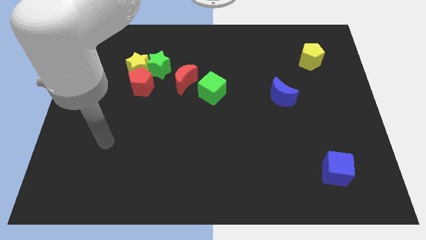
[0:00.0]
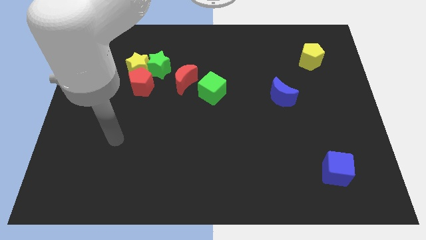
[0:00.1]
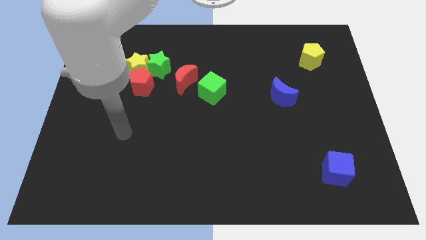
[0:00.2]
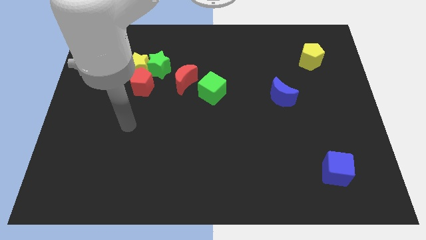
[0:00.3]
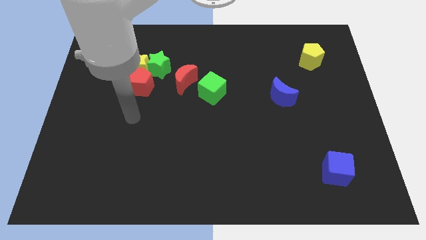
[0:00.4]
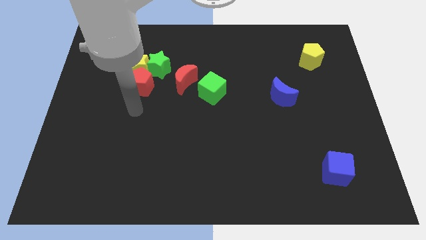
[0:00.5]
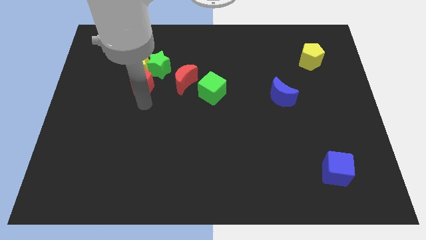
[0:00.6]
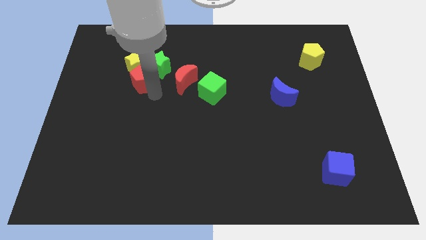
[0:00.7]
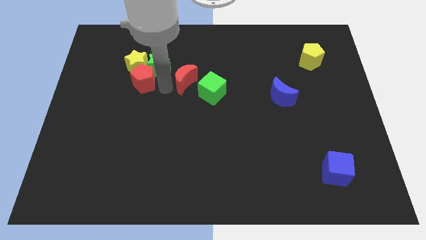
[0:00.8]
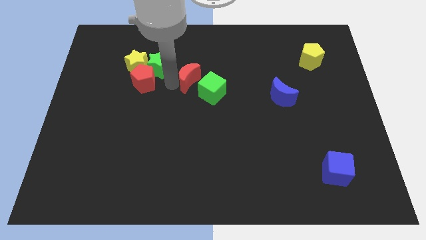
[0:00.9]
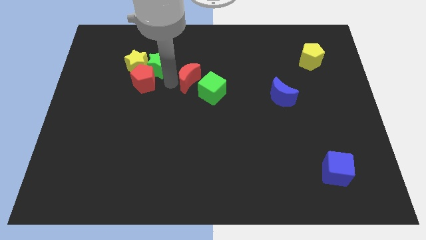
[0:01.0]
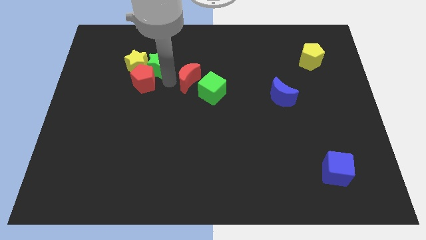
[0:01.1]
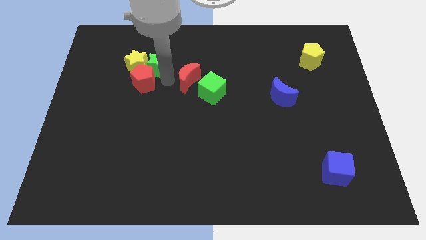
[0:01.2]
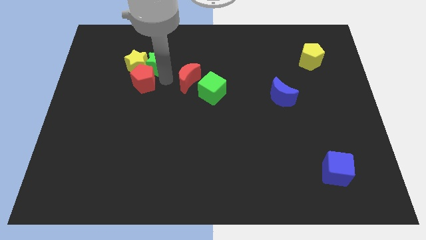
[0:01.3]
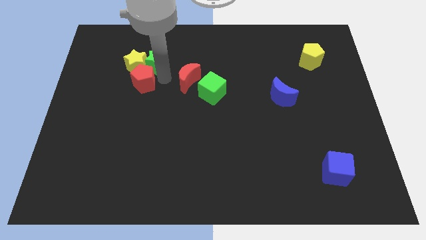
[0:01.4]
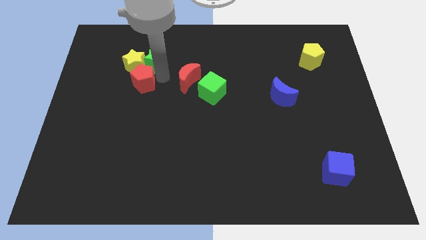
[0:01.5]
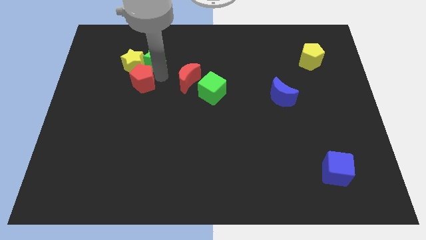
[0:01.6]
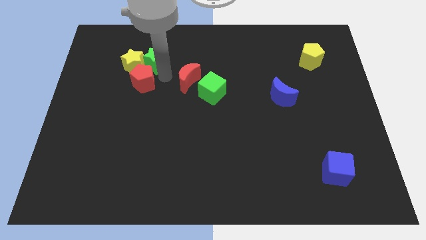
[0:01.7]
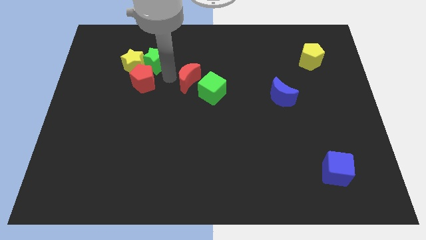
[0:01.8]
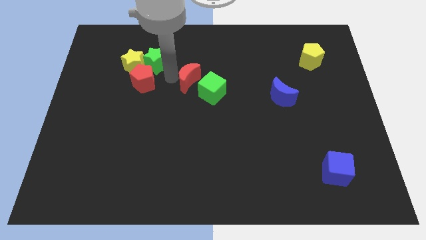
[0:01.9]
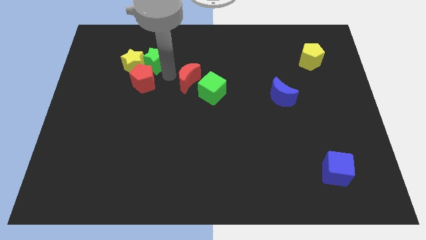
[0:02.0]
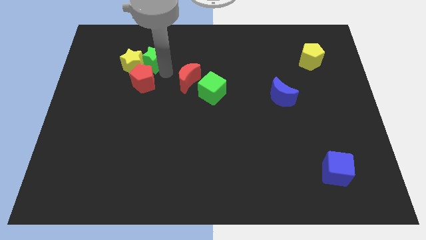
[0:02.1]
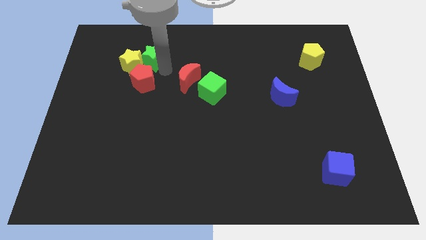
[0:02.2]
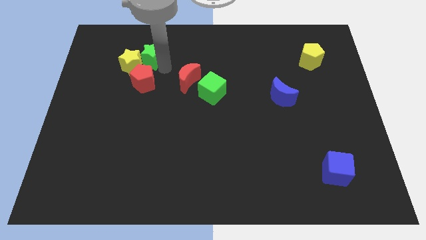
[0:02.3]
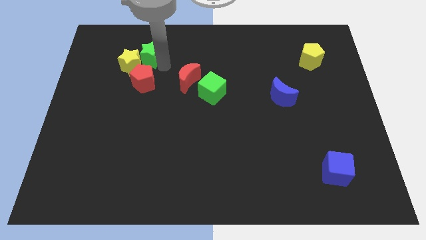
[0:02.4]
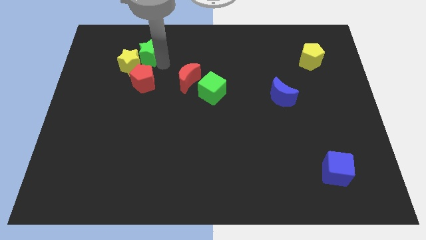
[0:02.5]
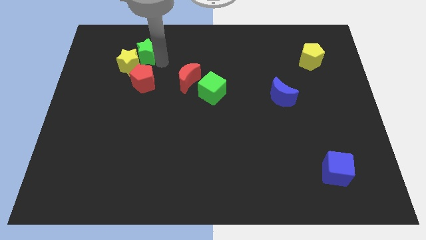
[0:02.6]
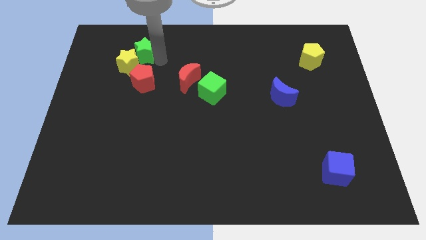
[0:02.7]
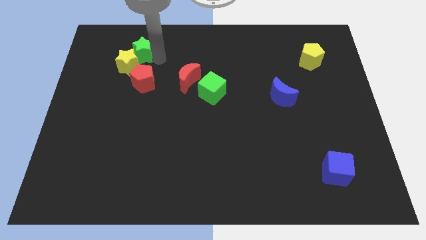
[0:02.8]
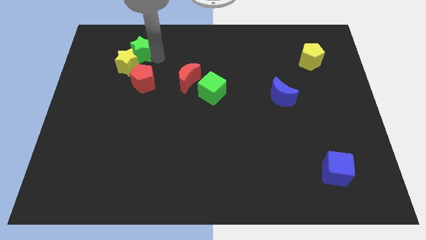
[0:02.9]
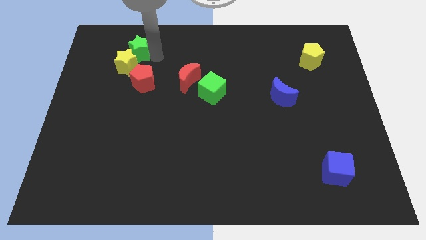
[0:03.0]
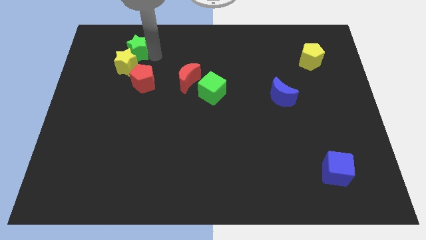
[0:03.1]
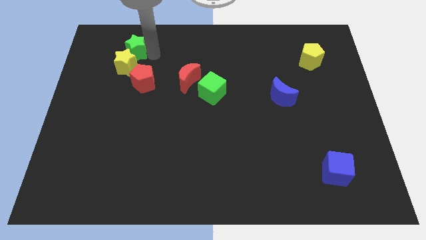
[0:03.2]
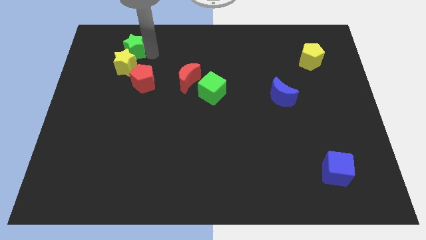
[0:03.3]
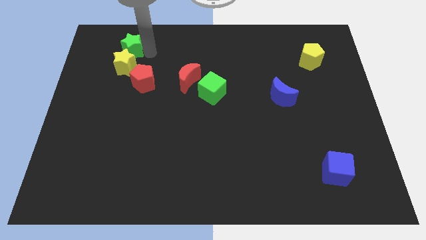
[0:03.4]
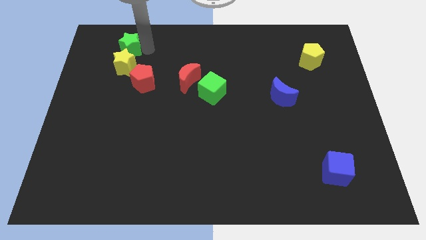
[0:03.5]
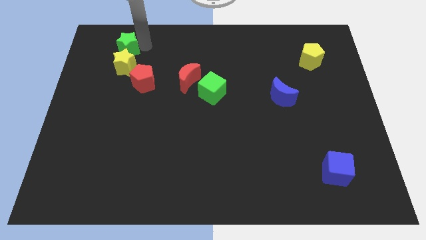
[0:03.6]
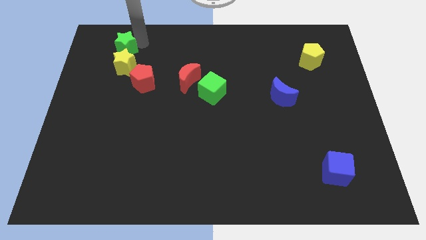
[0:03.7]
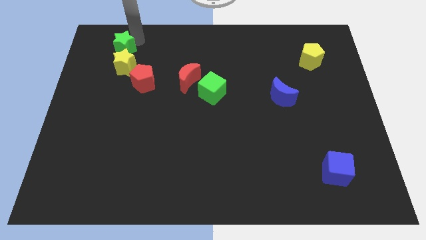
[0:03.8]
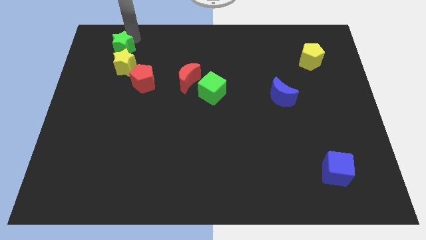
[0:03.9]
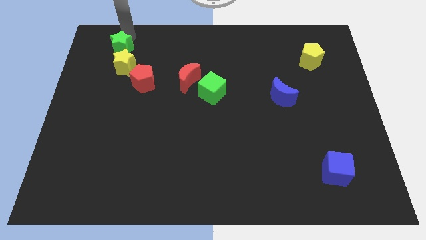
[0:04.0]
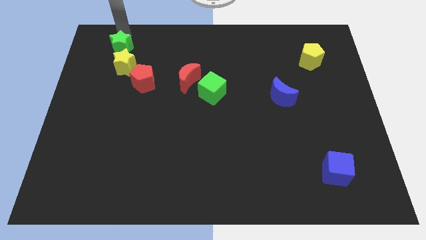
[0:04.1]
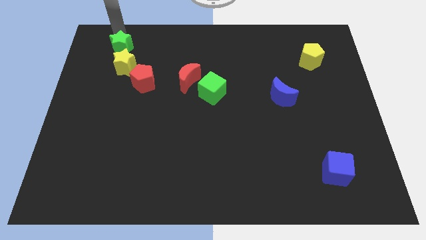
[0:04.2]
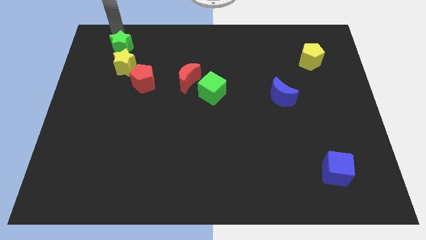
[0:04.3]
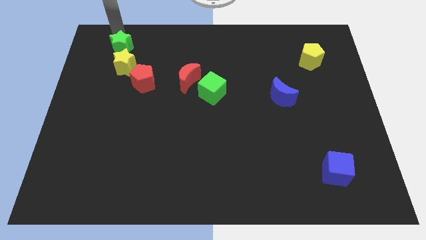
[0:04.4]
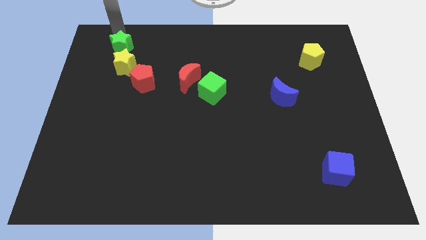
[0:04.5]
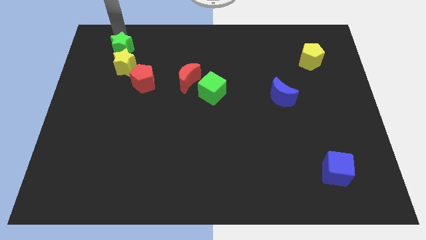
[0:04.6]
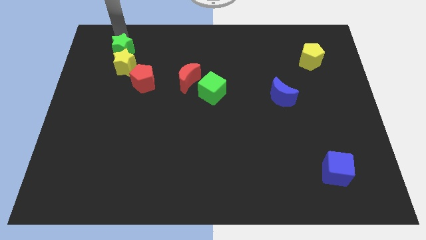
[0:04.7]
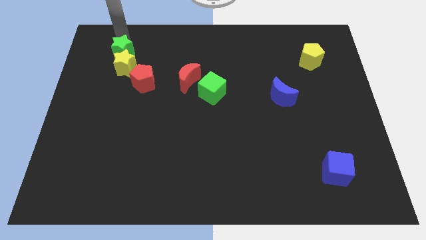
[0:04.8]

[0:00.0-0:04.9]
move the green star to the top left side of the red pentagon

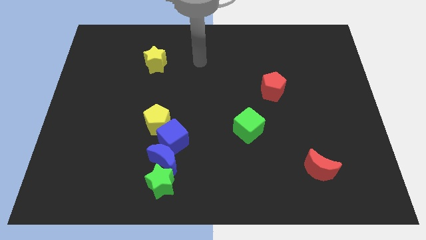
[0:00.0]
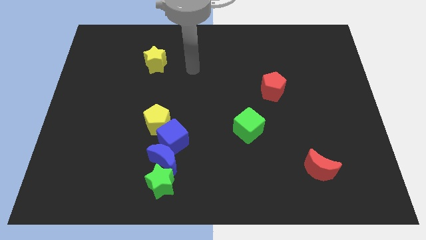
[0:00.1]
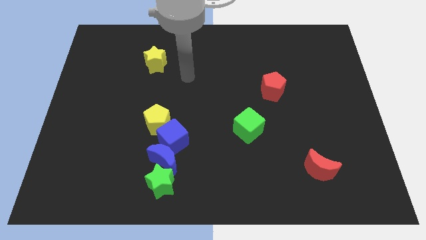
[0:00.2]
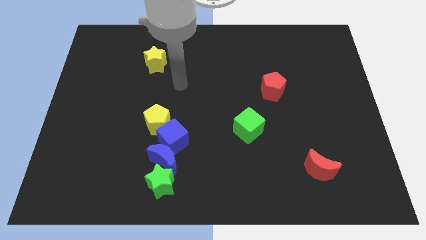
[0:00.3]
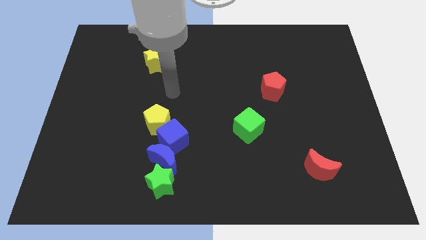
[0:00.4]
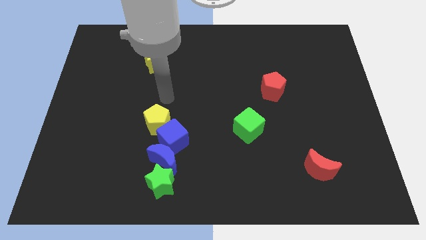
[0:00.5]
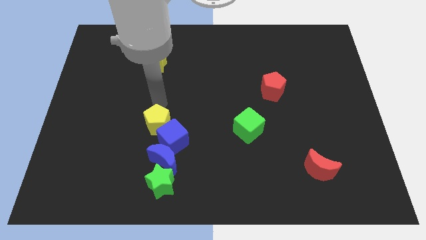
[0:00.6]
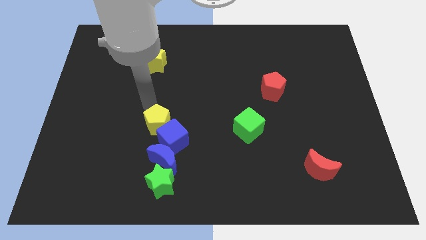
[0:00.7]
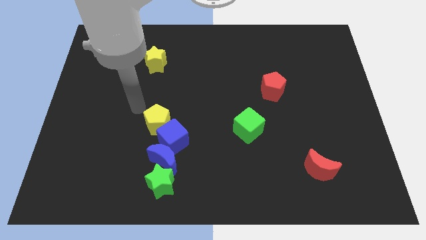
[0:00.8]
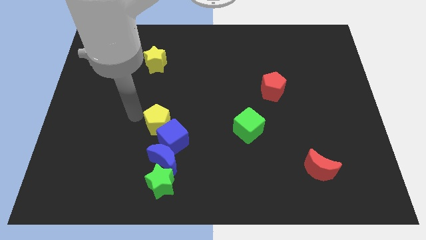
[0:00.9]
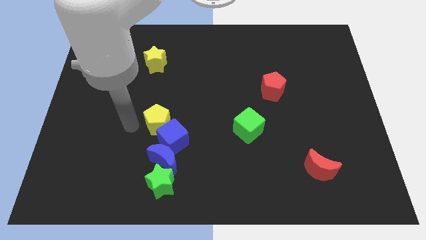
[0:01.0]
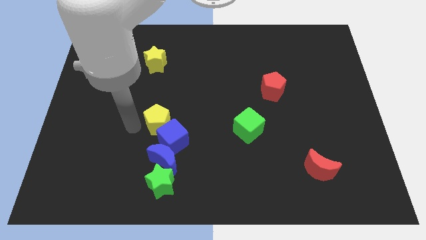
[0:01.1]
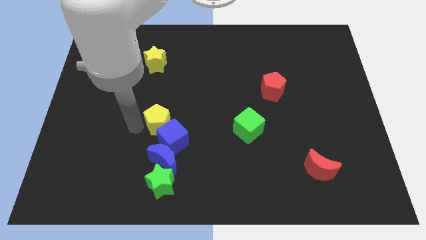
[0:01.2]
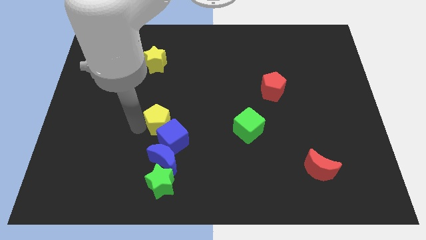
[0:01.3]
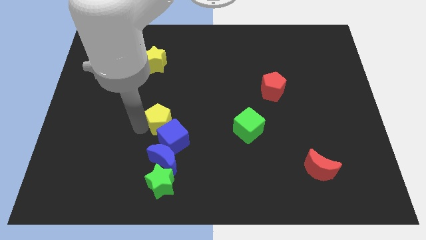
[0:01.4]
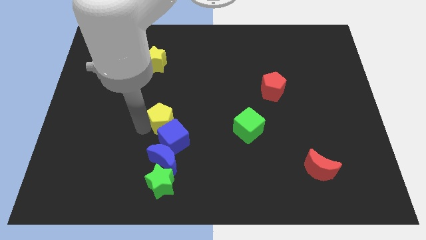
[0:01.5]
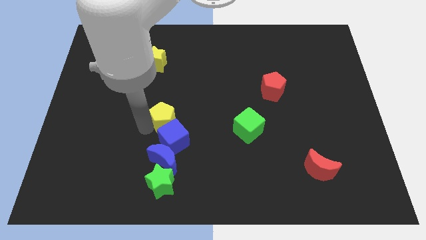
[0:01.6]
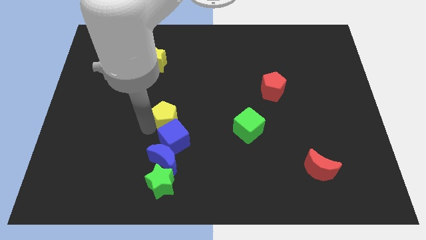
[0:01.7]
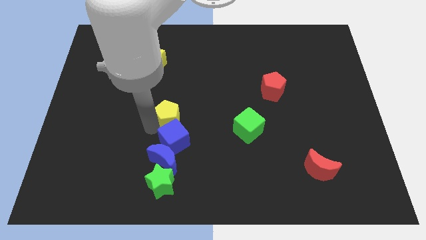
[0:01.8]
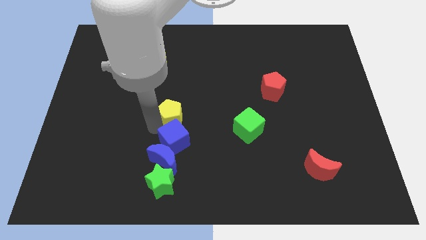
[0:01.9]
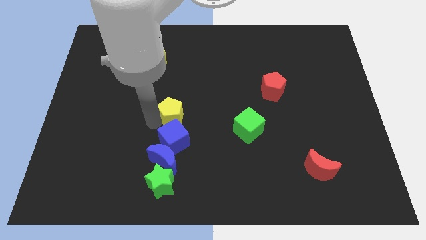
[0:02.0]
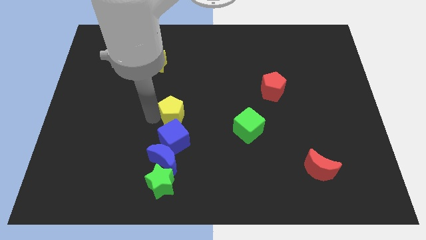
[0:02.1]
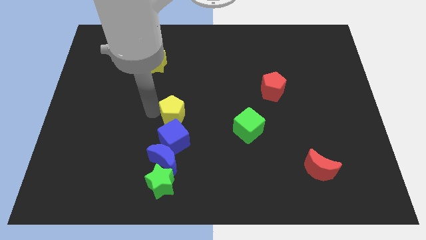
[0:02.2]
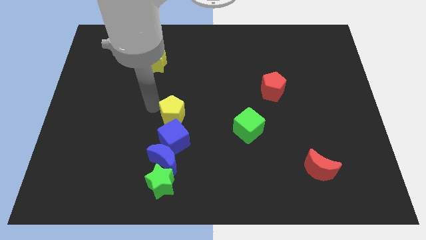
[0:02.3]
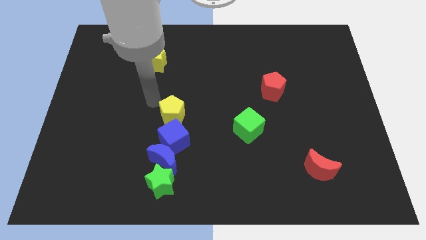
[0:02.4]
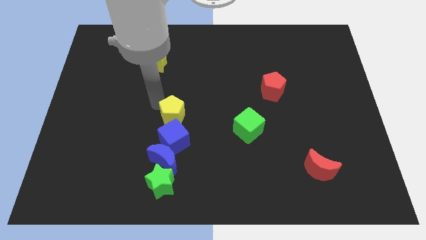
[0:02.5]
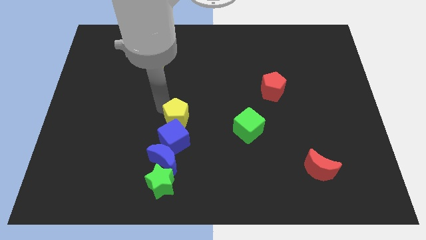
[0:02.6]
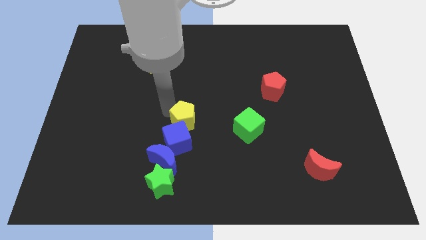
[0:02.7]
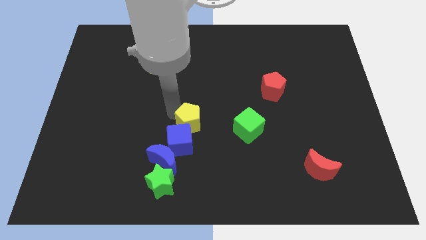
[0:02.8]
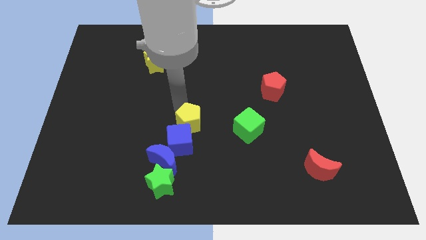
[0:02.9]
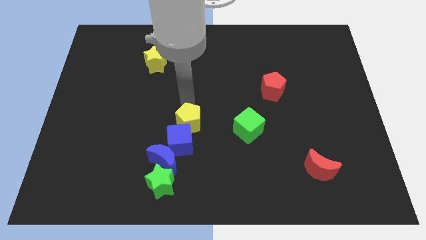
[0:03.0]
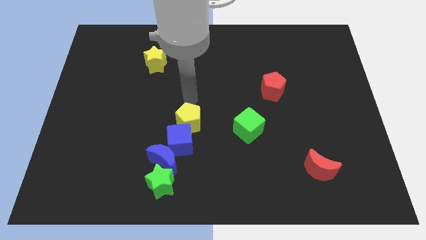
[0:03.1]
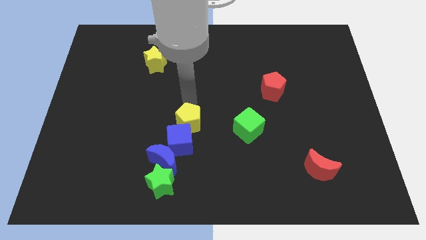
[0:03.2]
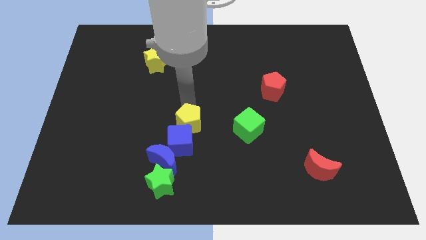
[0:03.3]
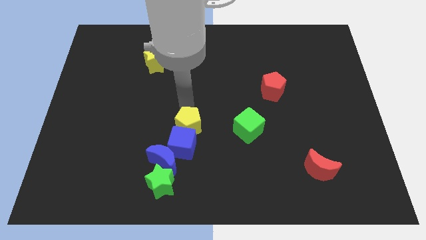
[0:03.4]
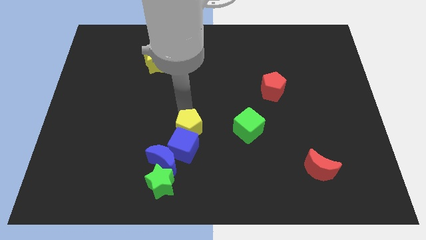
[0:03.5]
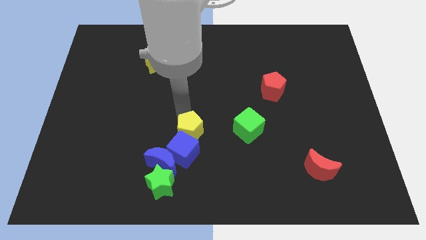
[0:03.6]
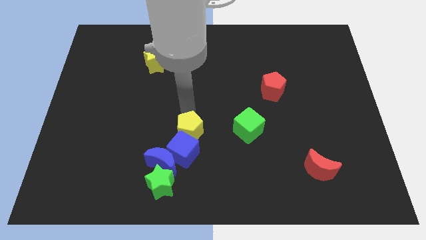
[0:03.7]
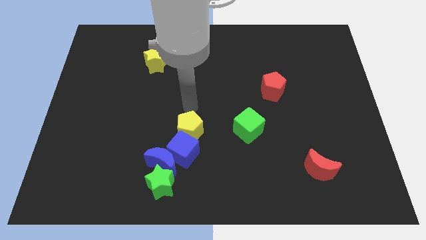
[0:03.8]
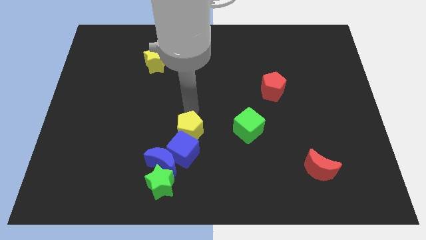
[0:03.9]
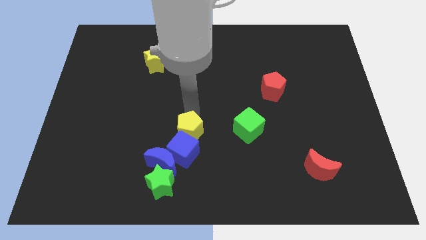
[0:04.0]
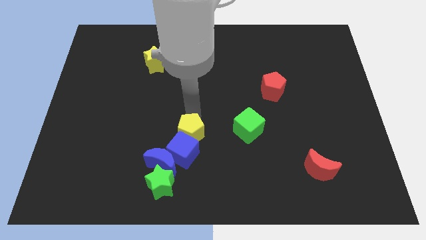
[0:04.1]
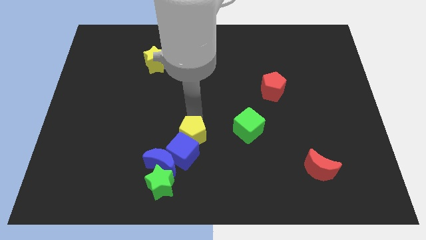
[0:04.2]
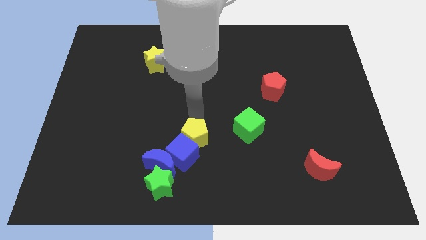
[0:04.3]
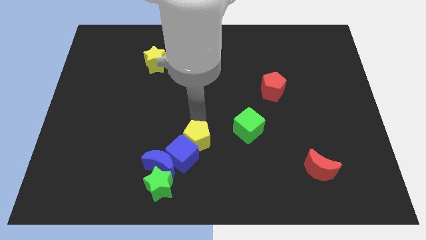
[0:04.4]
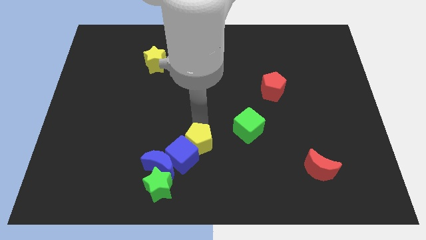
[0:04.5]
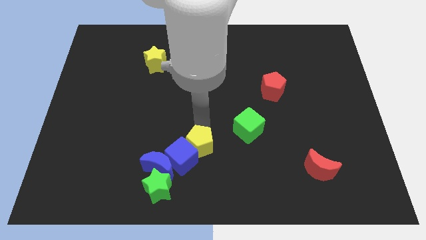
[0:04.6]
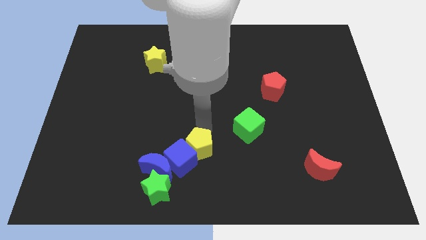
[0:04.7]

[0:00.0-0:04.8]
slide the yellow pentagon diagonally up and to the right of the green star
